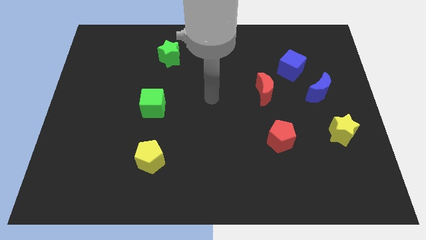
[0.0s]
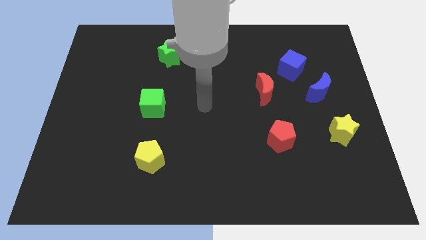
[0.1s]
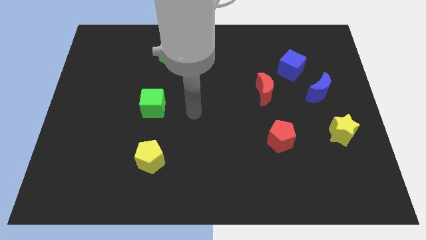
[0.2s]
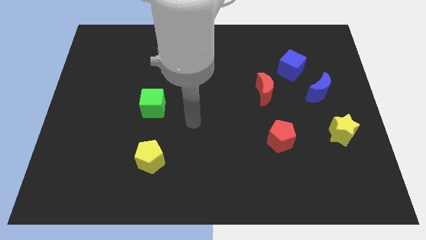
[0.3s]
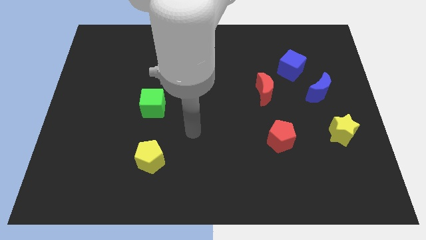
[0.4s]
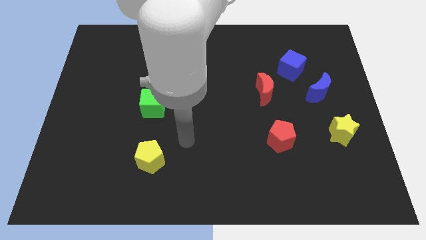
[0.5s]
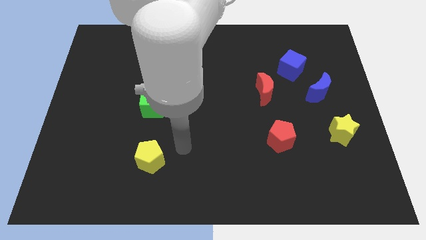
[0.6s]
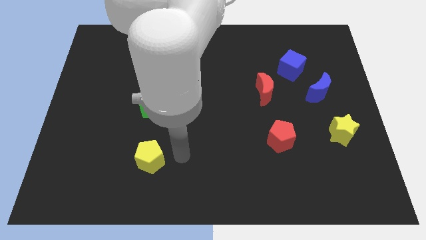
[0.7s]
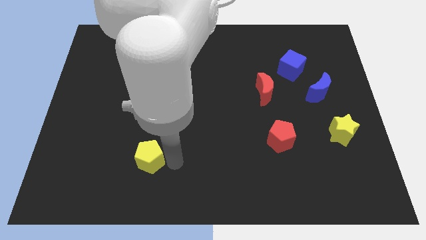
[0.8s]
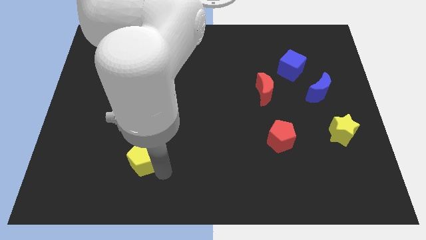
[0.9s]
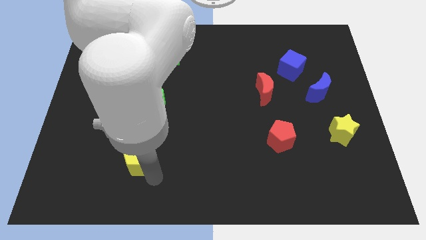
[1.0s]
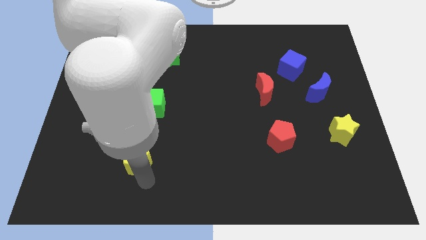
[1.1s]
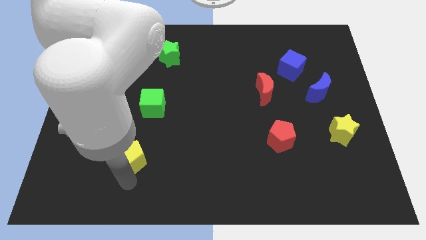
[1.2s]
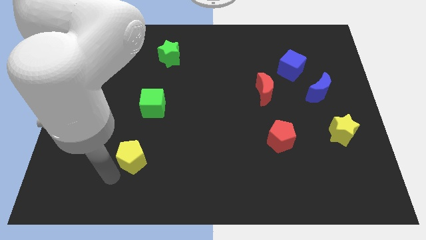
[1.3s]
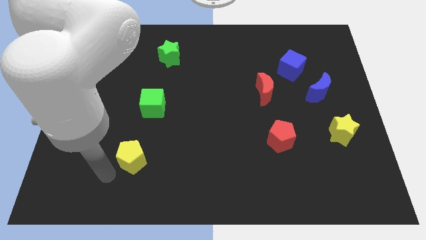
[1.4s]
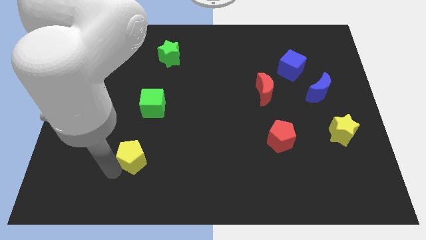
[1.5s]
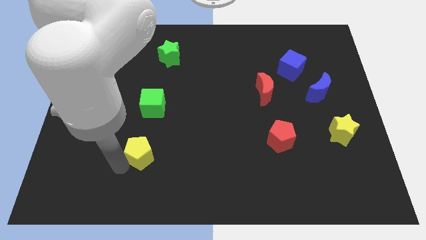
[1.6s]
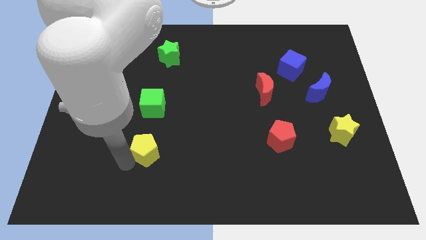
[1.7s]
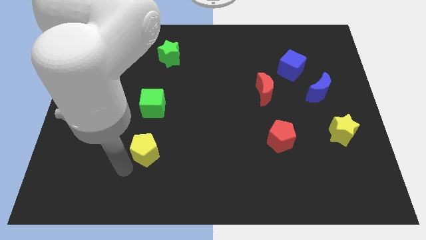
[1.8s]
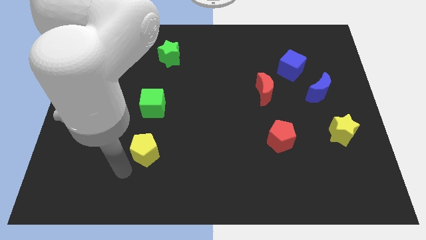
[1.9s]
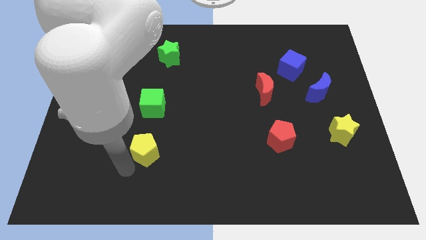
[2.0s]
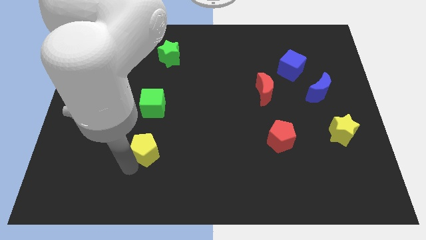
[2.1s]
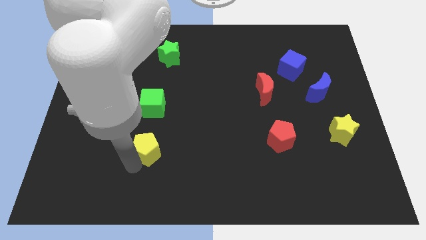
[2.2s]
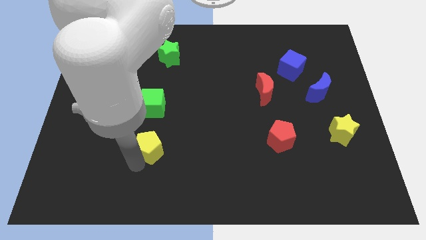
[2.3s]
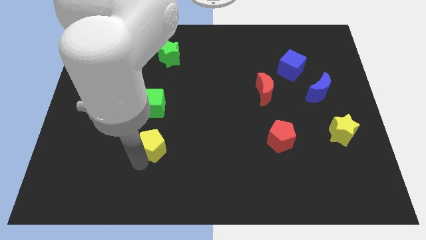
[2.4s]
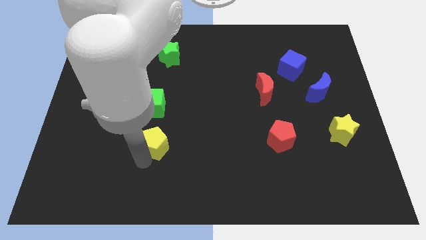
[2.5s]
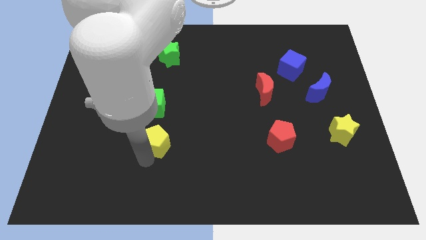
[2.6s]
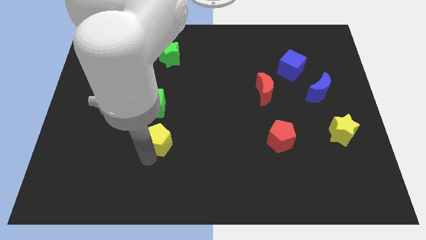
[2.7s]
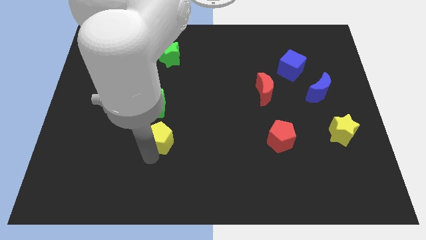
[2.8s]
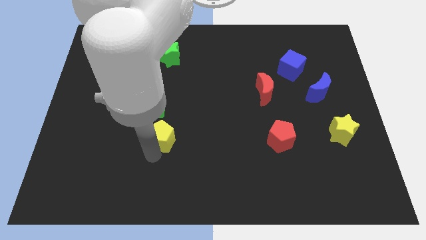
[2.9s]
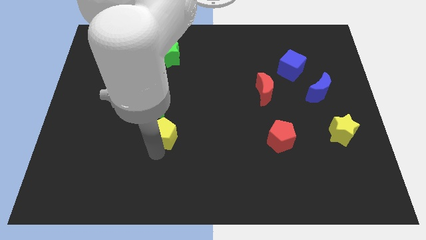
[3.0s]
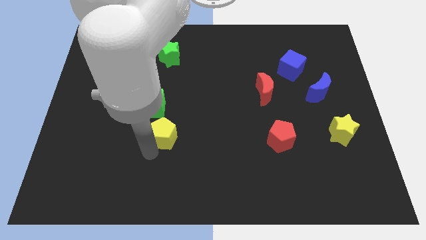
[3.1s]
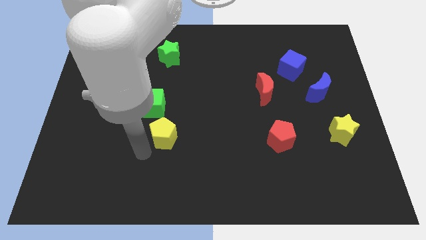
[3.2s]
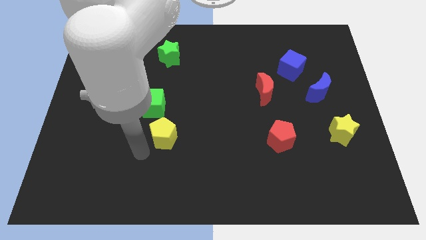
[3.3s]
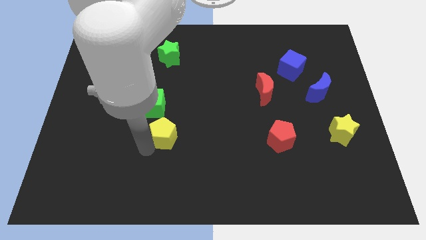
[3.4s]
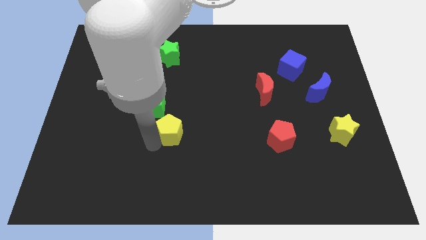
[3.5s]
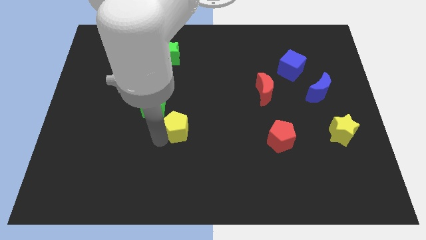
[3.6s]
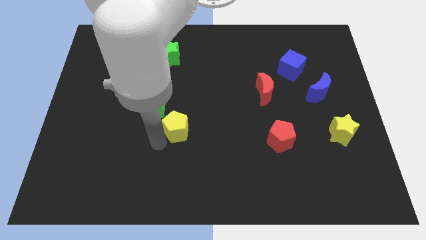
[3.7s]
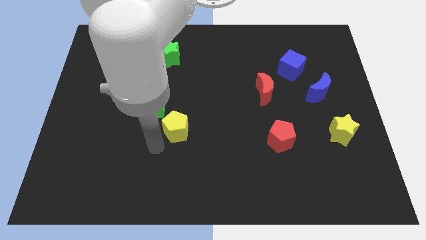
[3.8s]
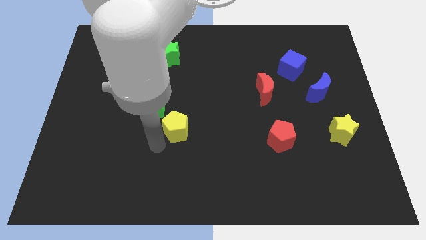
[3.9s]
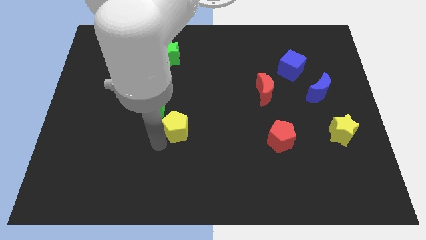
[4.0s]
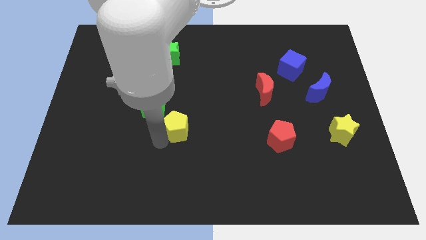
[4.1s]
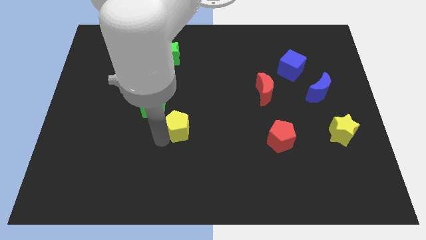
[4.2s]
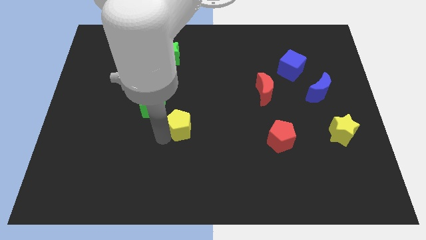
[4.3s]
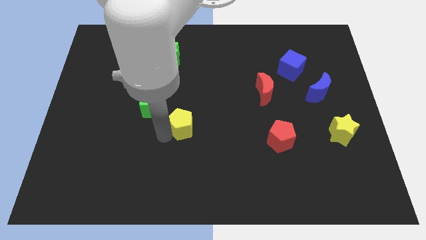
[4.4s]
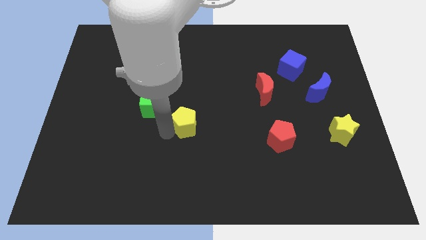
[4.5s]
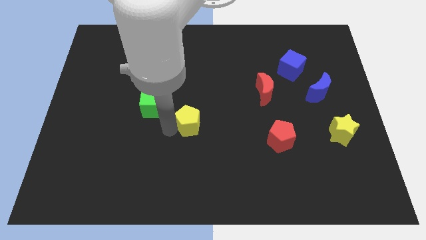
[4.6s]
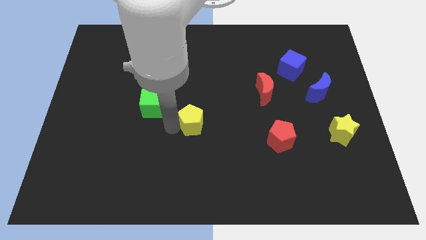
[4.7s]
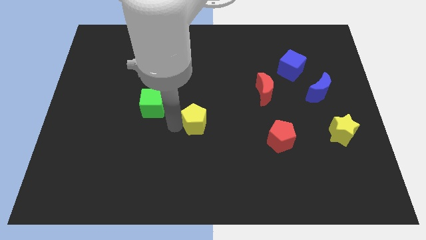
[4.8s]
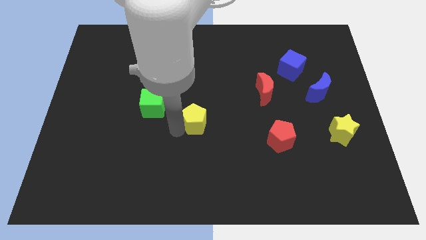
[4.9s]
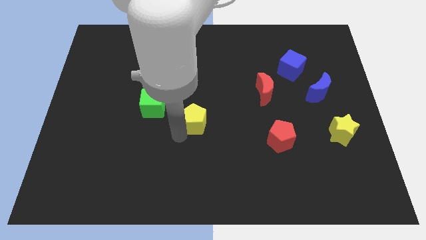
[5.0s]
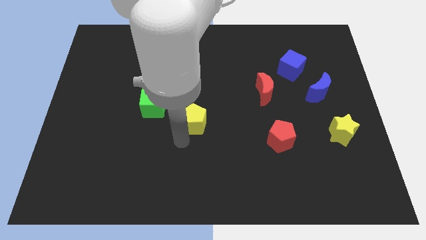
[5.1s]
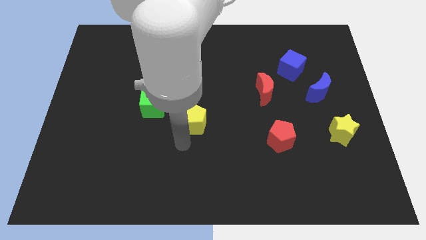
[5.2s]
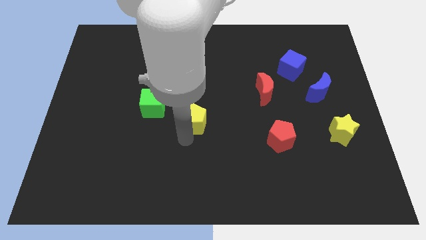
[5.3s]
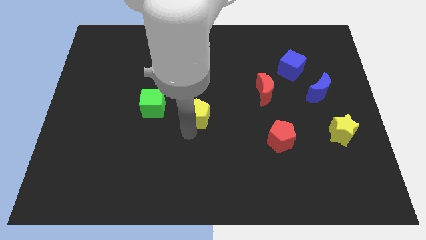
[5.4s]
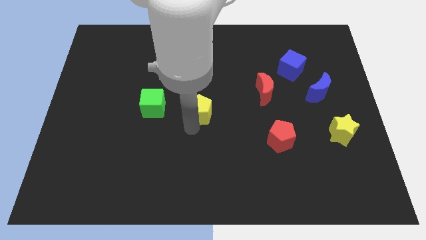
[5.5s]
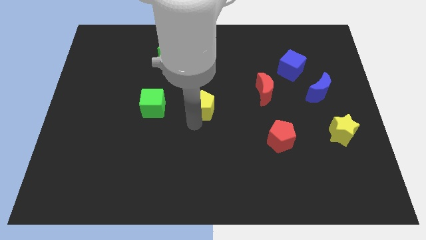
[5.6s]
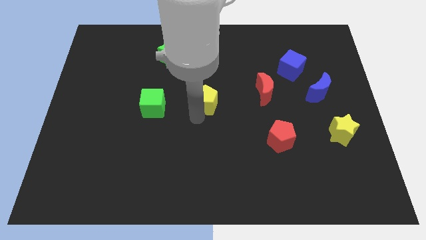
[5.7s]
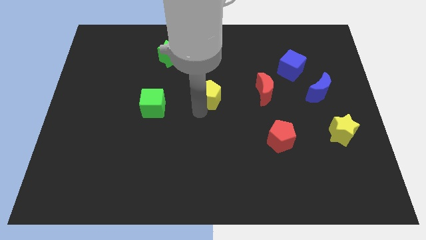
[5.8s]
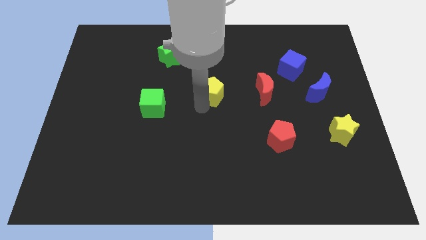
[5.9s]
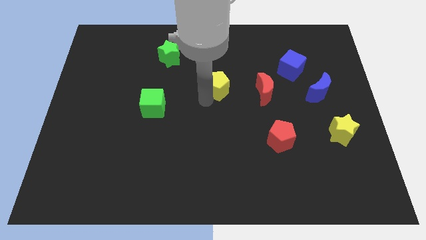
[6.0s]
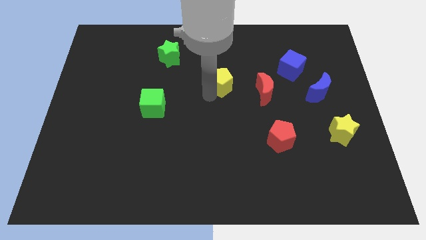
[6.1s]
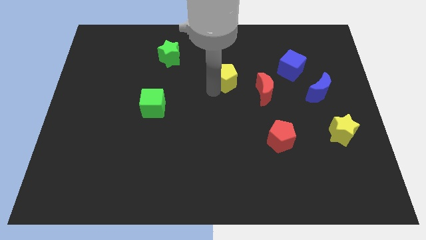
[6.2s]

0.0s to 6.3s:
slide the yellow pentagon to the top left of the red moon
